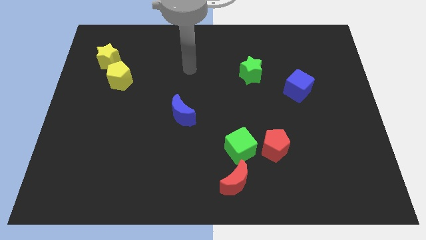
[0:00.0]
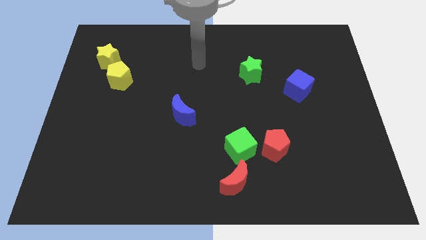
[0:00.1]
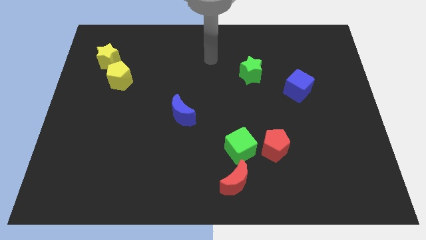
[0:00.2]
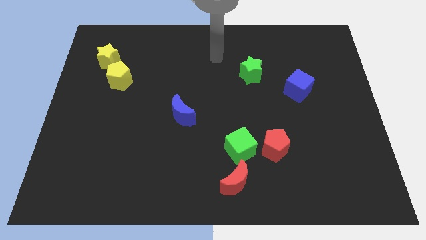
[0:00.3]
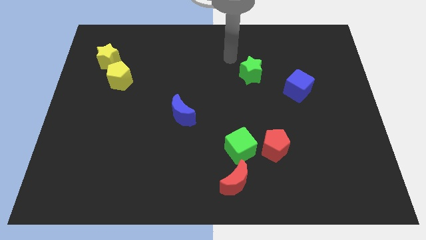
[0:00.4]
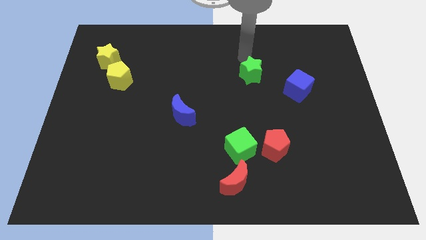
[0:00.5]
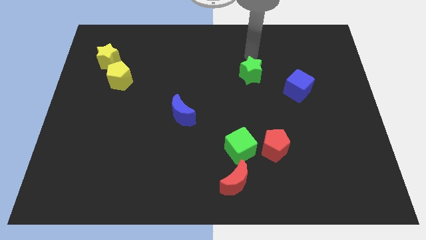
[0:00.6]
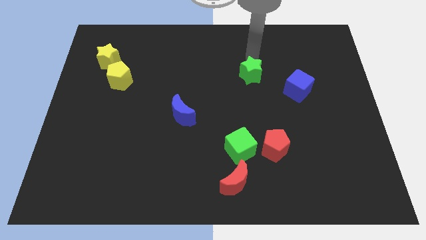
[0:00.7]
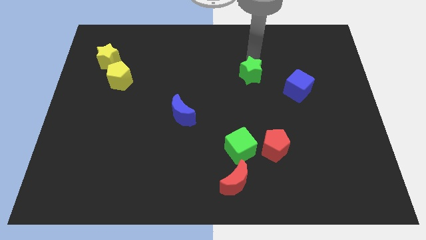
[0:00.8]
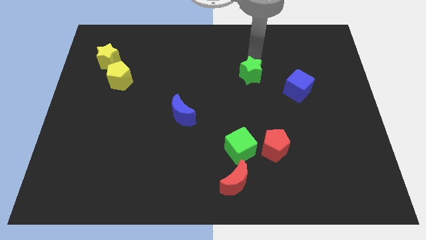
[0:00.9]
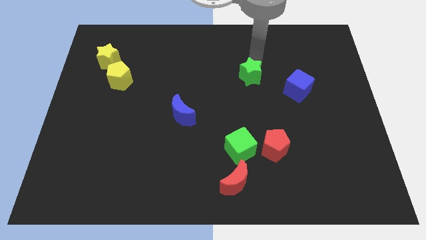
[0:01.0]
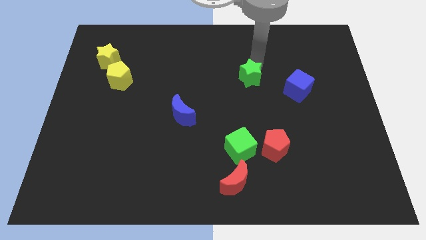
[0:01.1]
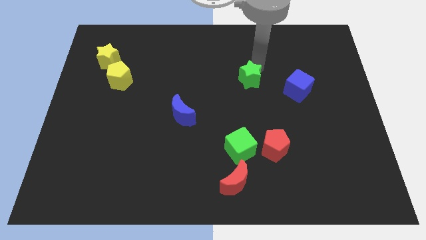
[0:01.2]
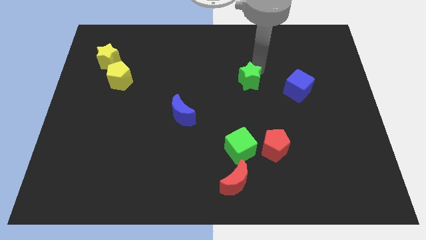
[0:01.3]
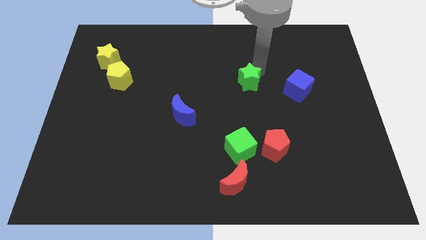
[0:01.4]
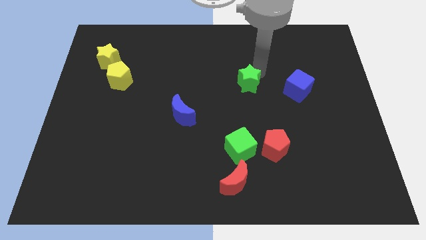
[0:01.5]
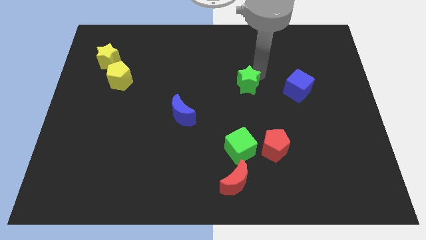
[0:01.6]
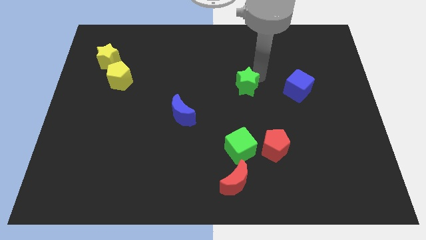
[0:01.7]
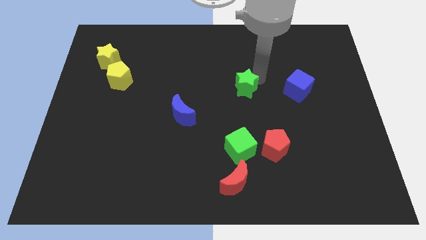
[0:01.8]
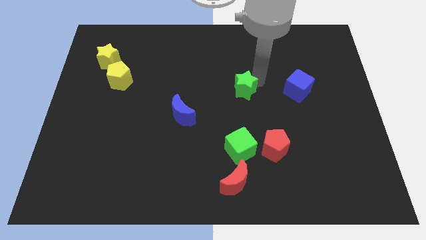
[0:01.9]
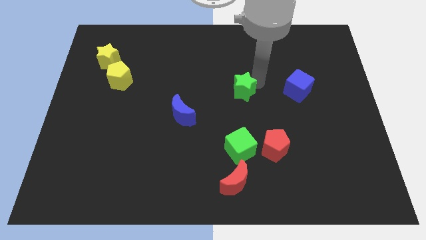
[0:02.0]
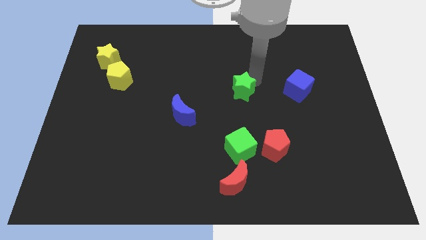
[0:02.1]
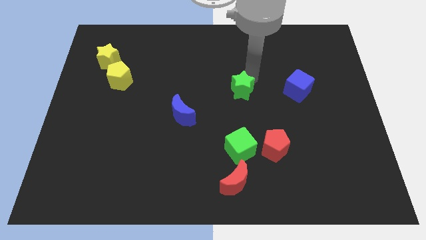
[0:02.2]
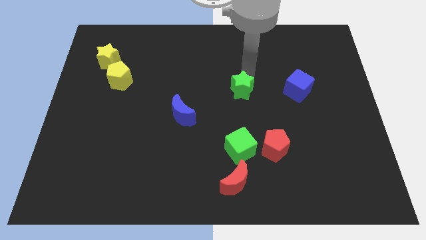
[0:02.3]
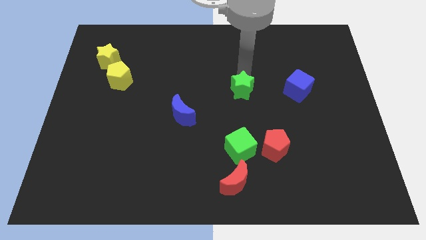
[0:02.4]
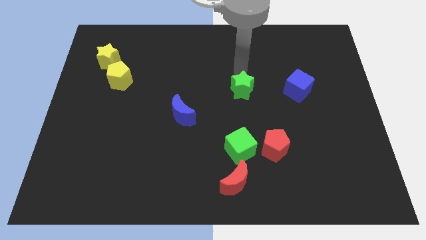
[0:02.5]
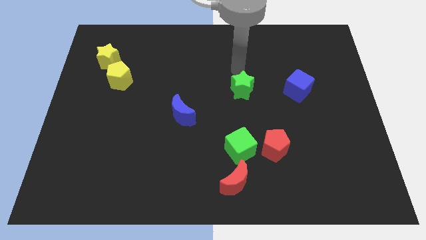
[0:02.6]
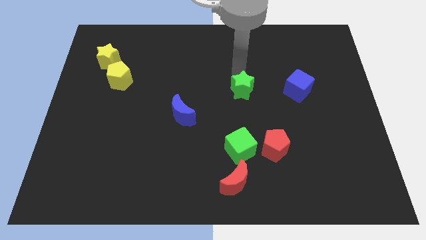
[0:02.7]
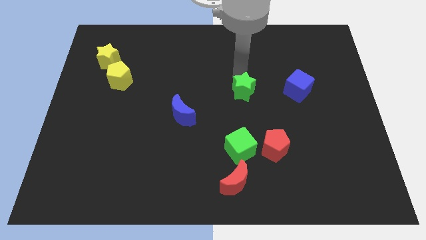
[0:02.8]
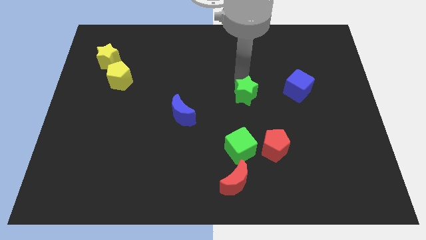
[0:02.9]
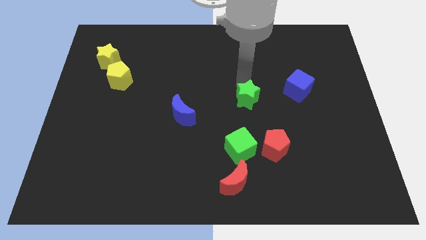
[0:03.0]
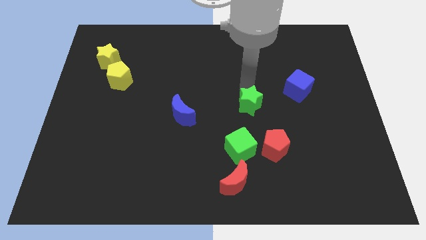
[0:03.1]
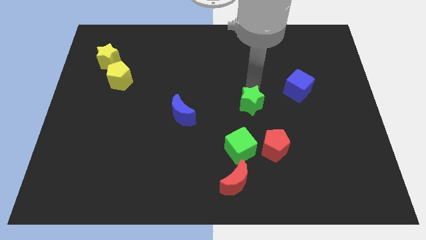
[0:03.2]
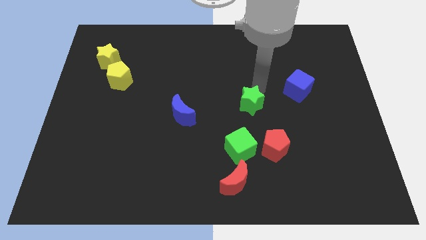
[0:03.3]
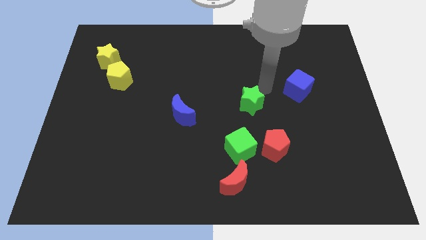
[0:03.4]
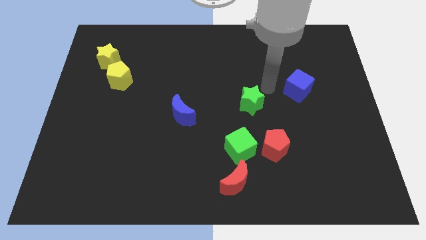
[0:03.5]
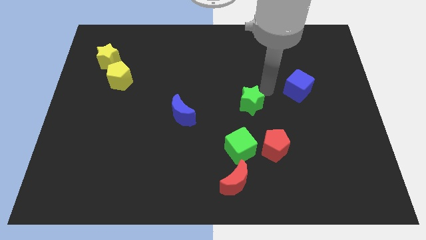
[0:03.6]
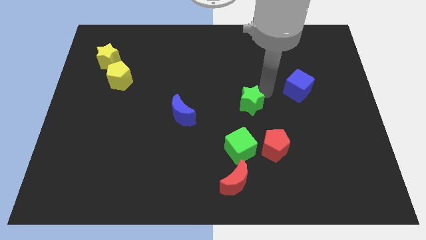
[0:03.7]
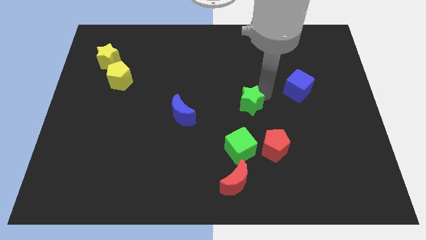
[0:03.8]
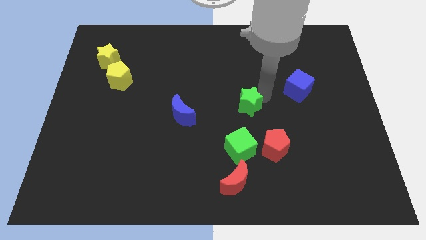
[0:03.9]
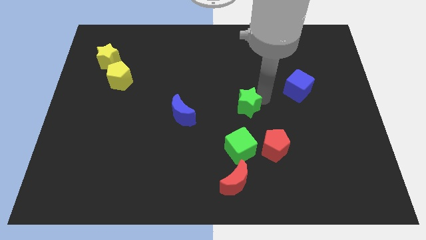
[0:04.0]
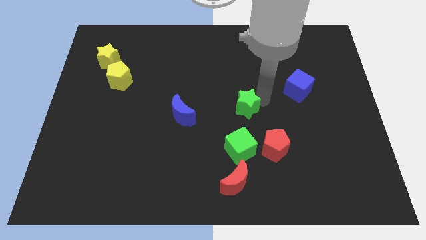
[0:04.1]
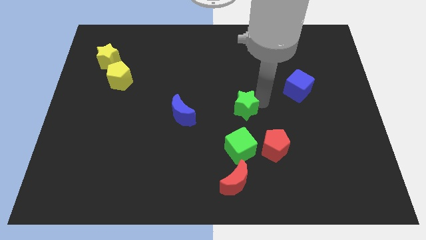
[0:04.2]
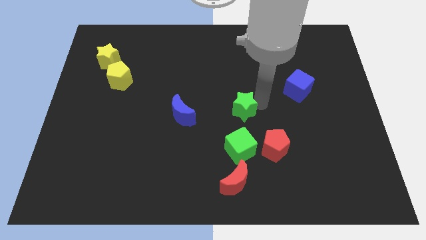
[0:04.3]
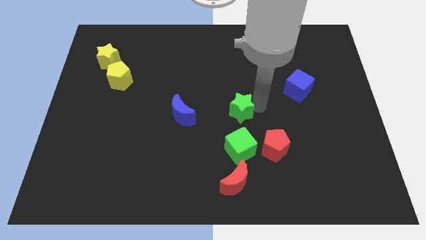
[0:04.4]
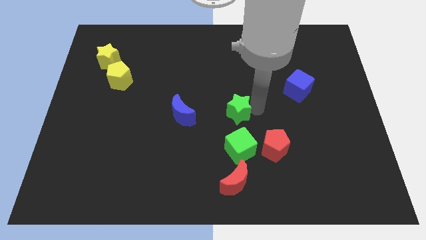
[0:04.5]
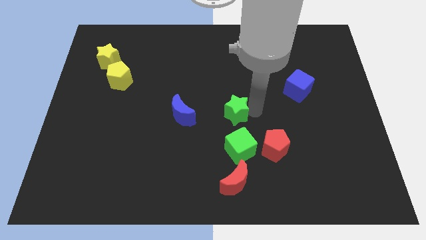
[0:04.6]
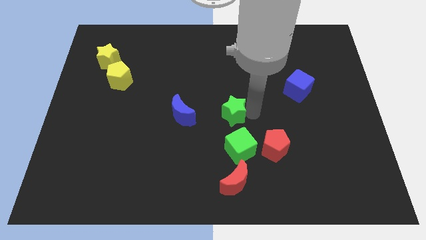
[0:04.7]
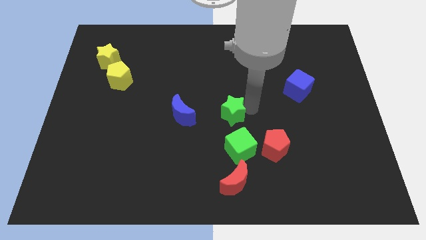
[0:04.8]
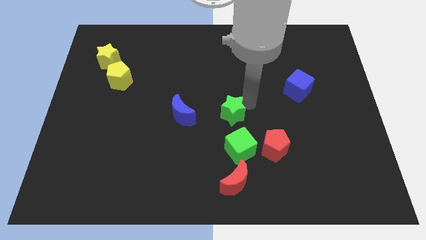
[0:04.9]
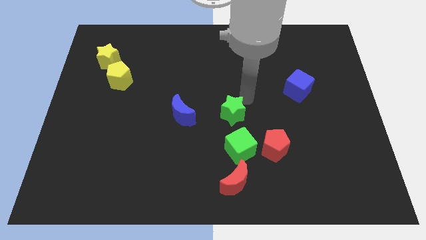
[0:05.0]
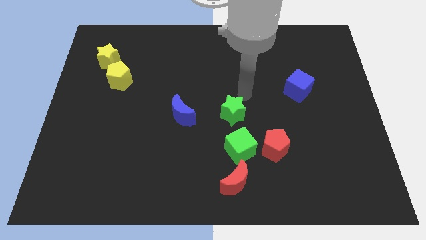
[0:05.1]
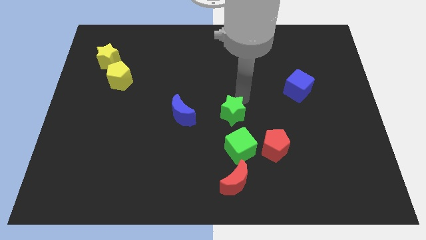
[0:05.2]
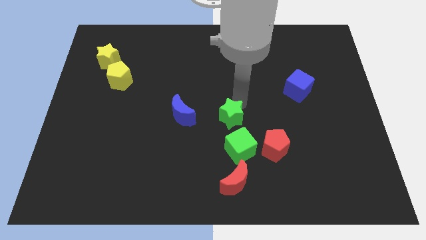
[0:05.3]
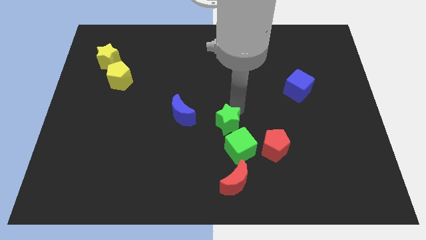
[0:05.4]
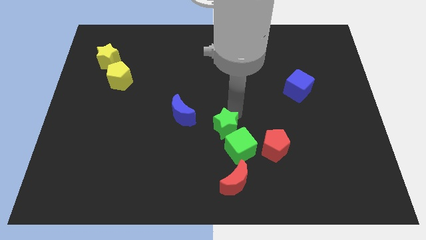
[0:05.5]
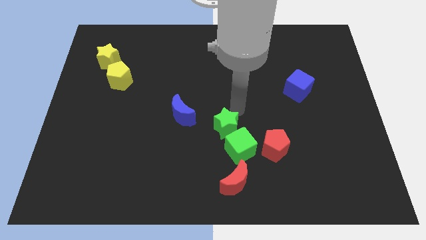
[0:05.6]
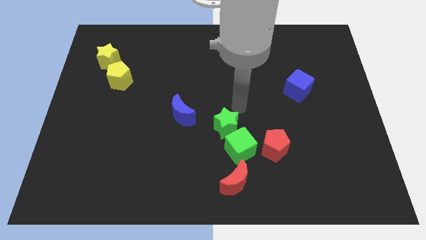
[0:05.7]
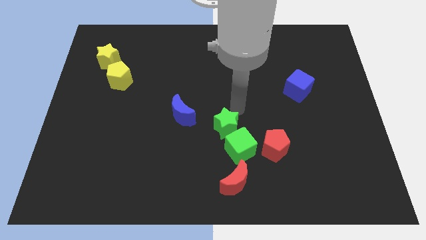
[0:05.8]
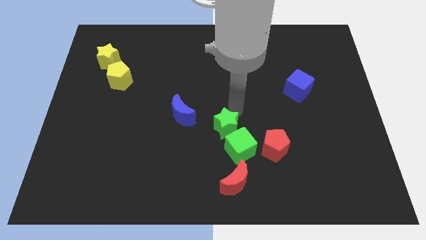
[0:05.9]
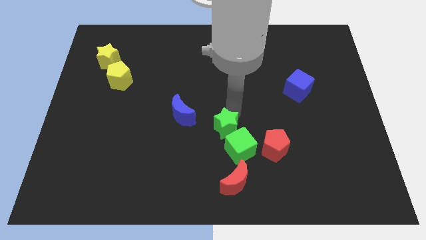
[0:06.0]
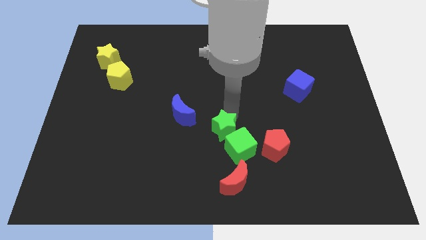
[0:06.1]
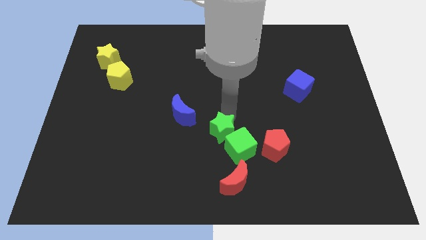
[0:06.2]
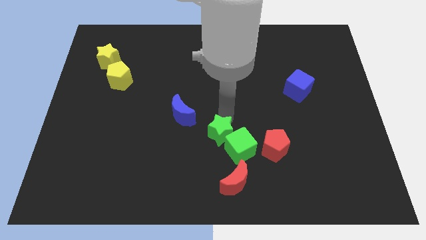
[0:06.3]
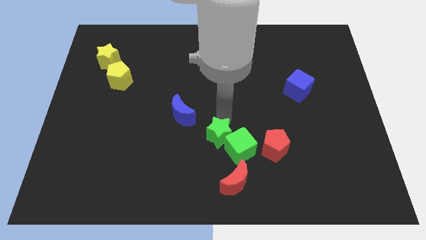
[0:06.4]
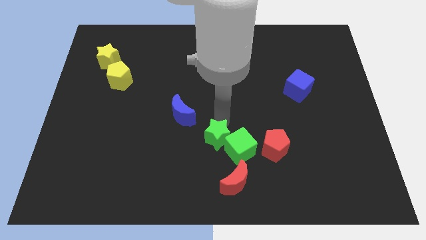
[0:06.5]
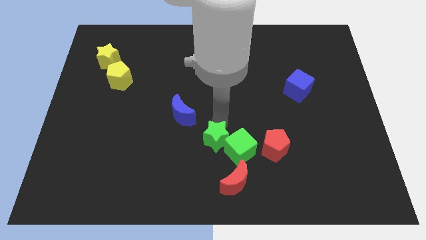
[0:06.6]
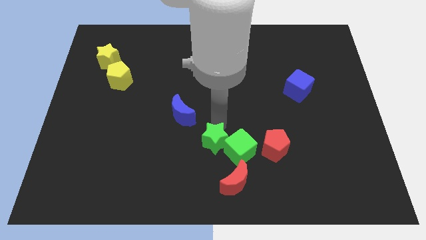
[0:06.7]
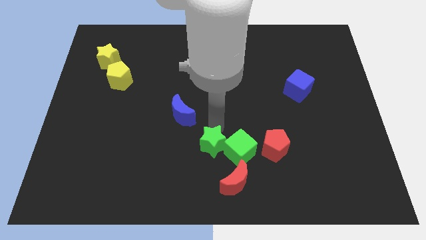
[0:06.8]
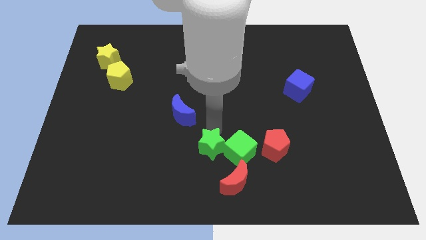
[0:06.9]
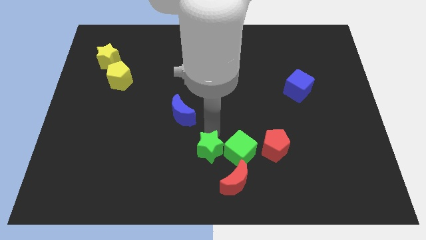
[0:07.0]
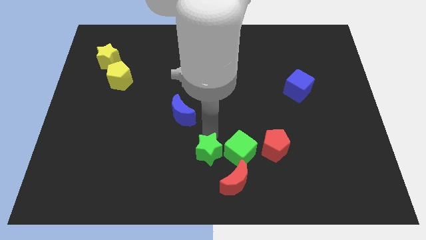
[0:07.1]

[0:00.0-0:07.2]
slide the green star to the bottom
